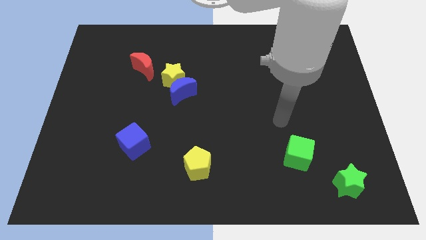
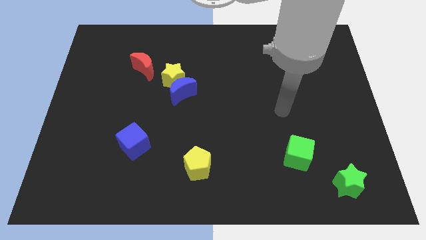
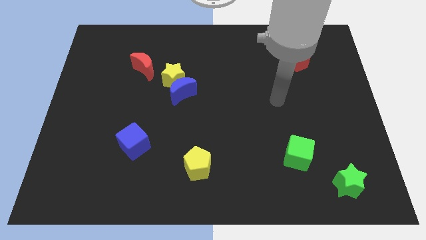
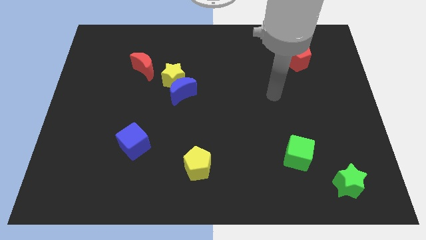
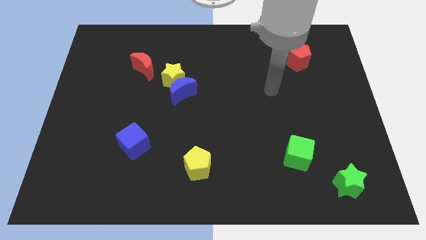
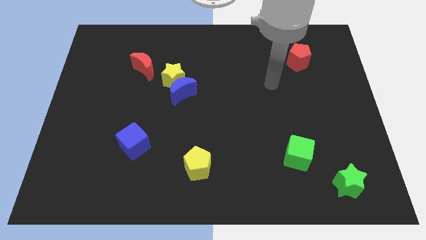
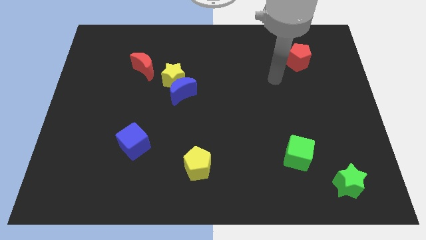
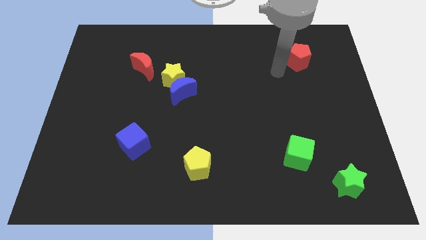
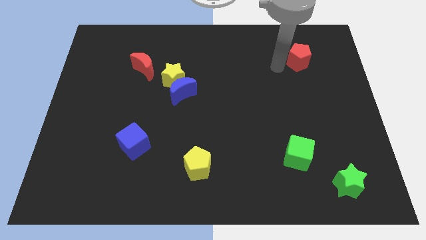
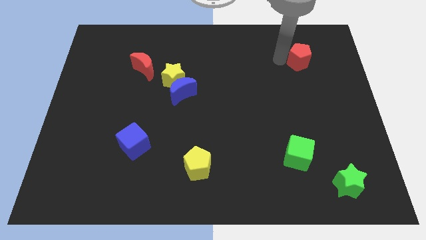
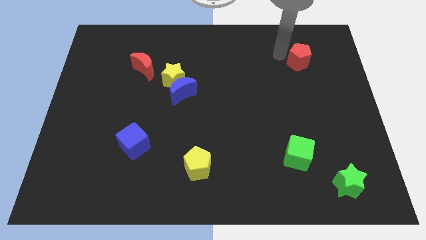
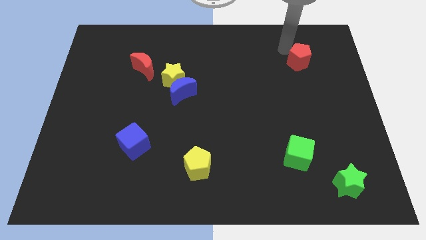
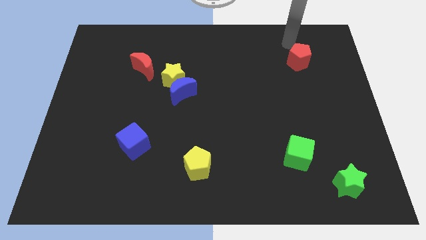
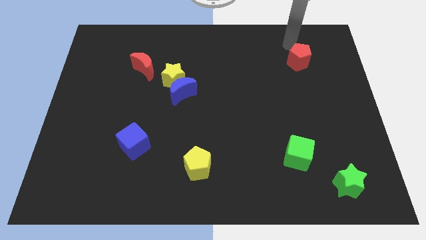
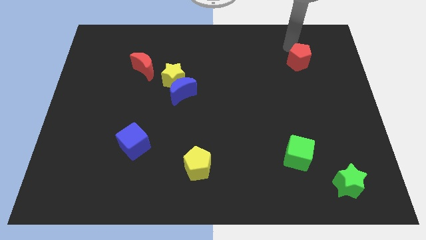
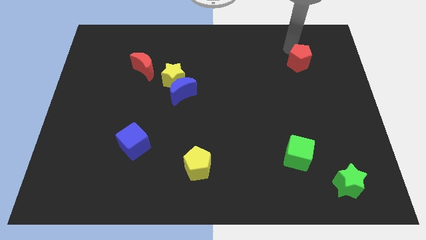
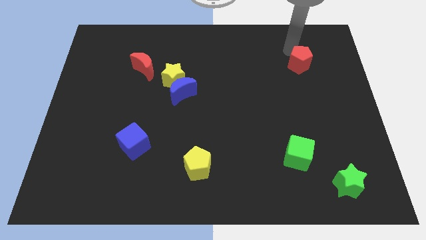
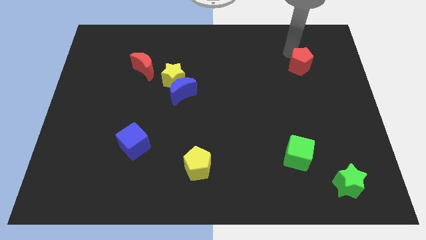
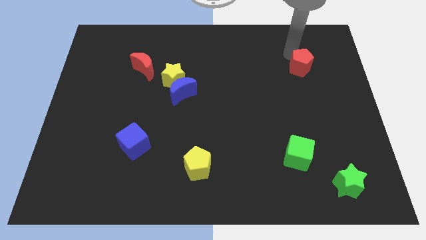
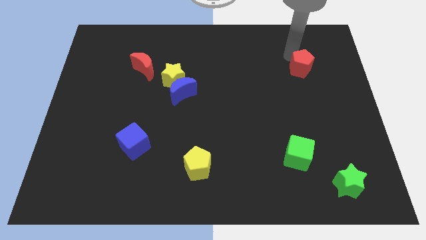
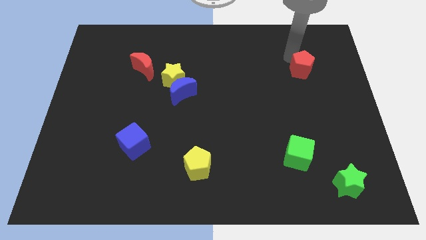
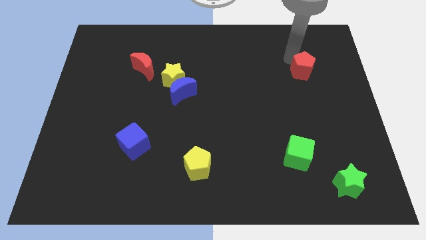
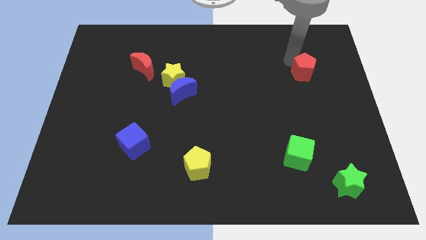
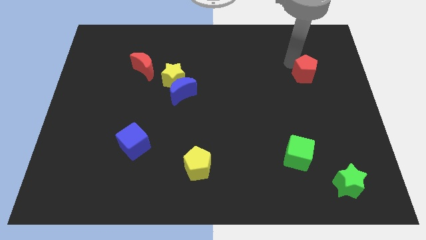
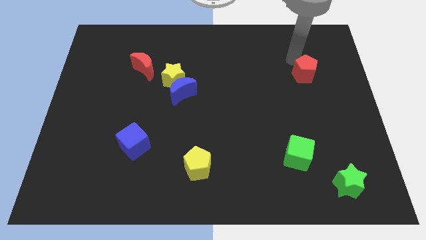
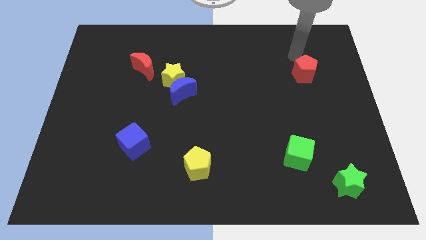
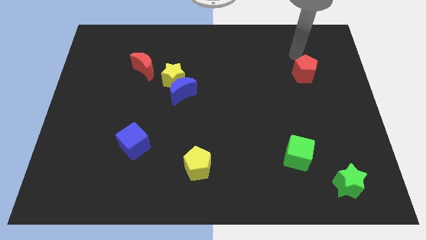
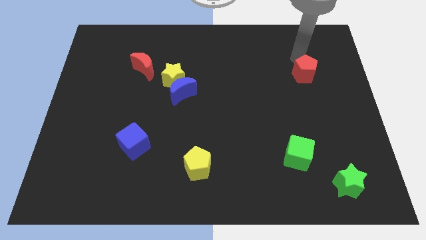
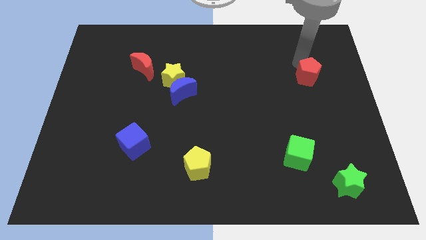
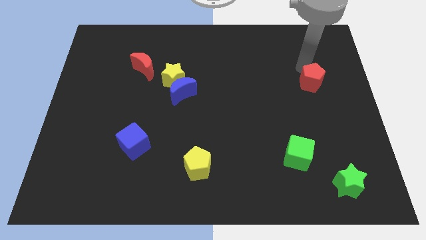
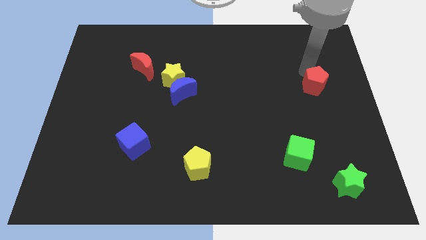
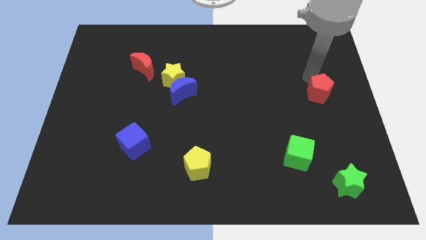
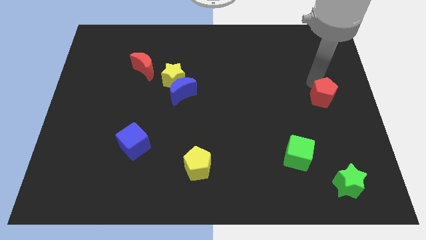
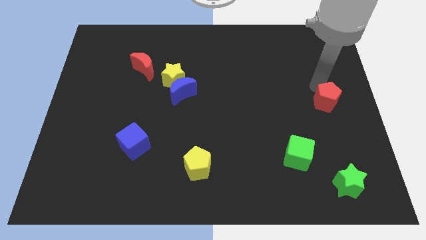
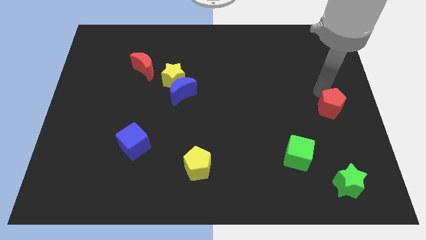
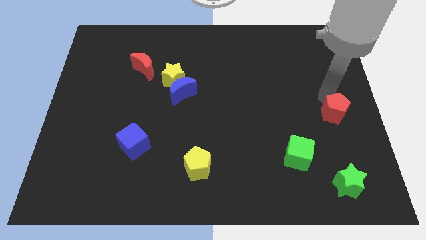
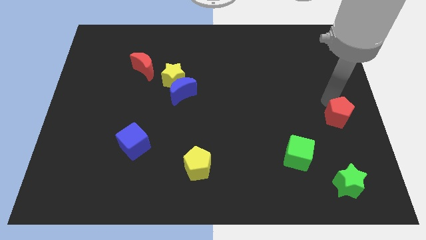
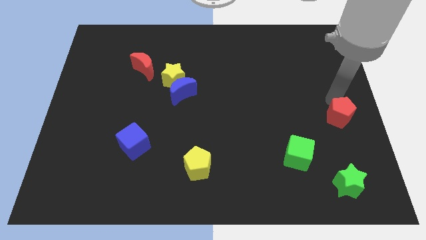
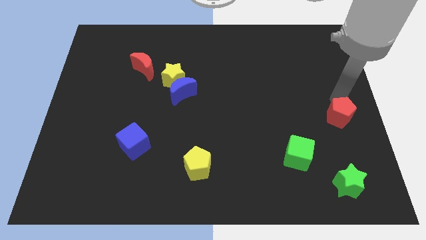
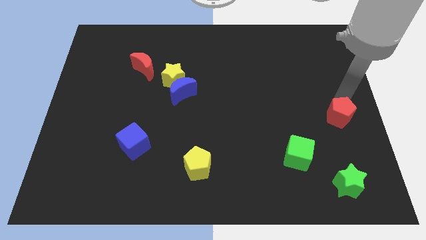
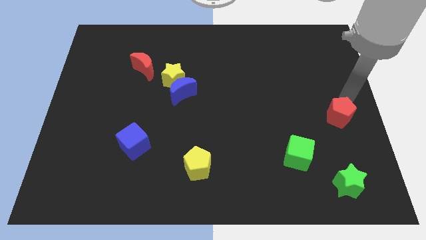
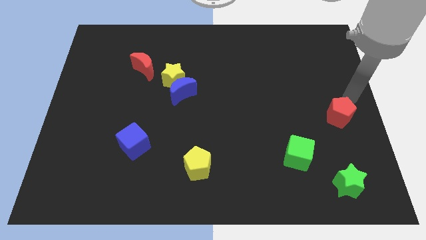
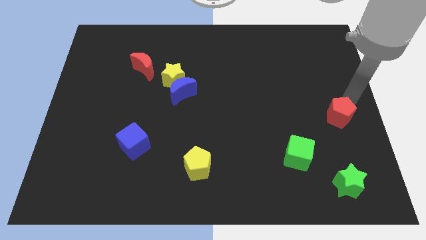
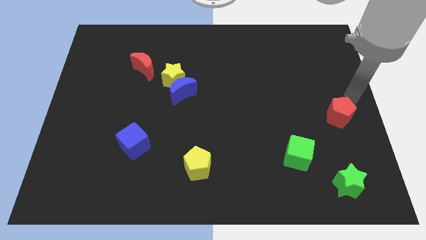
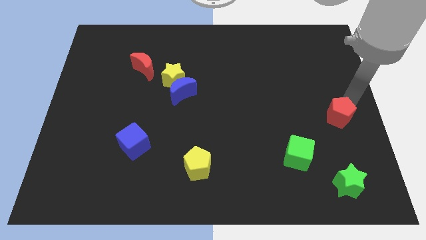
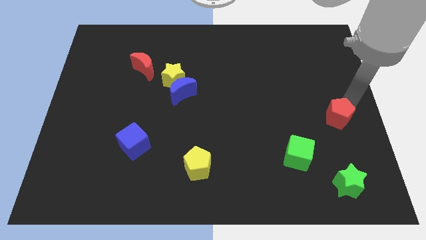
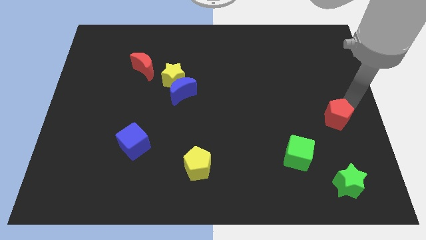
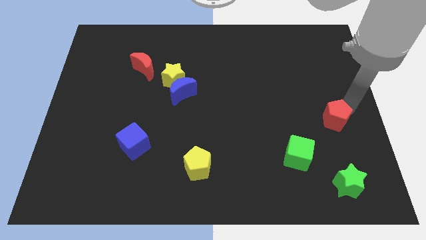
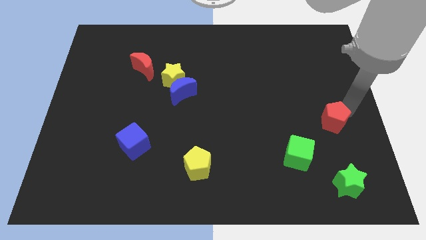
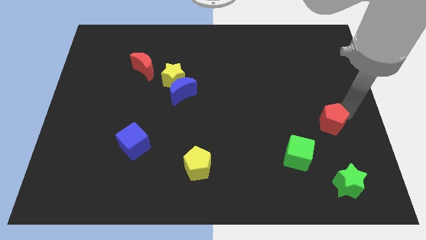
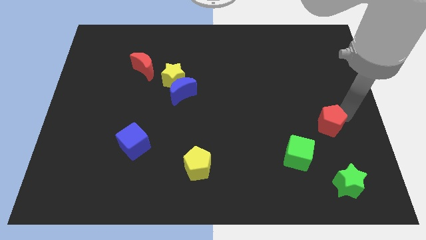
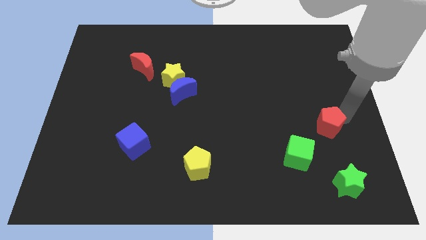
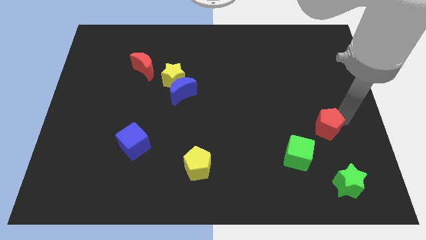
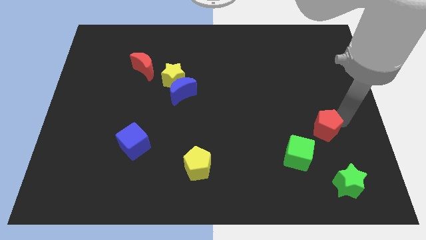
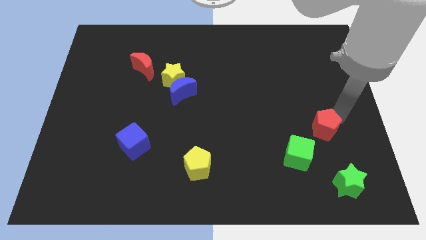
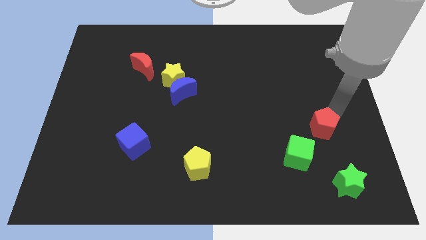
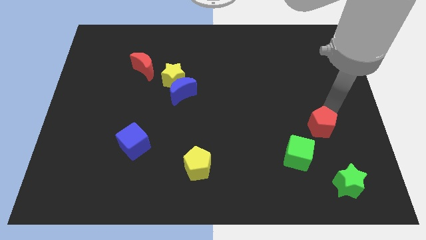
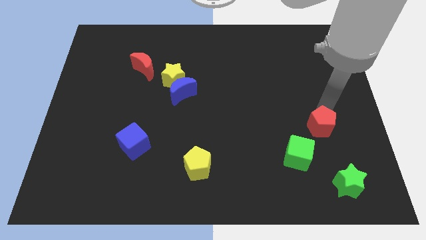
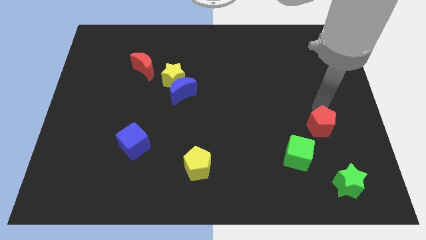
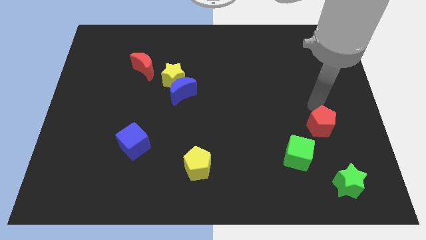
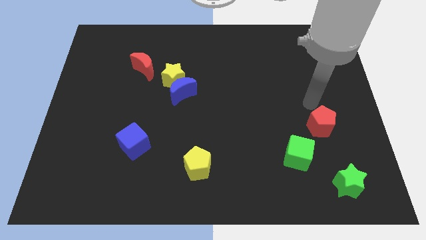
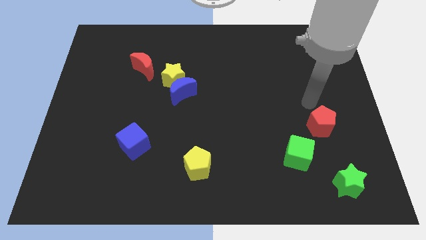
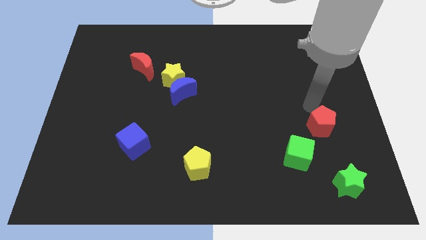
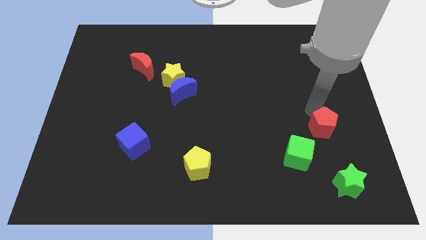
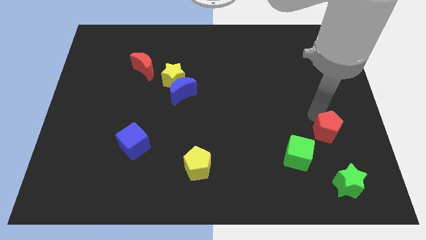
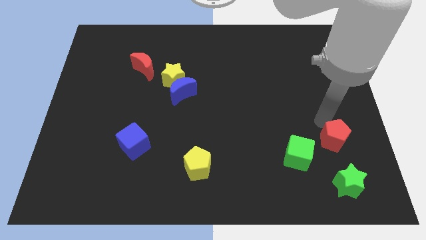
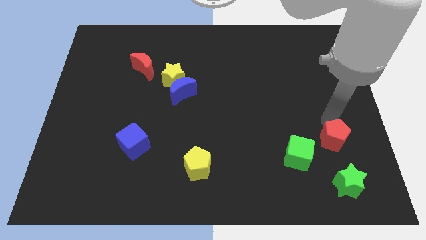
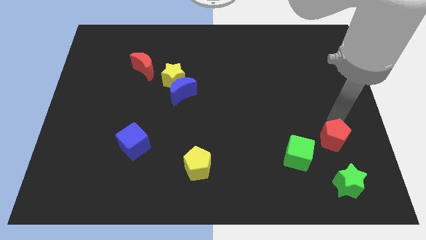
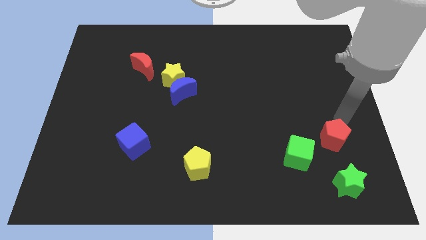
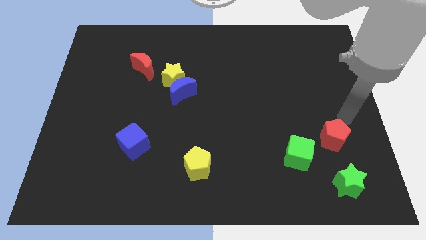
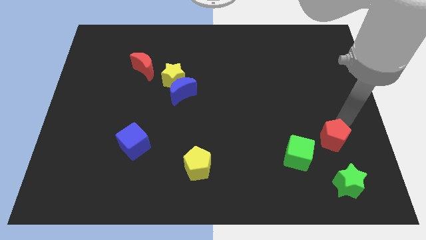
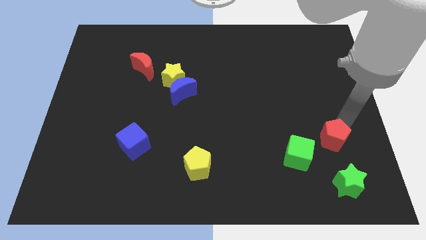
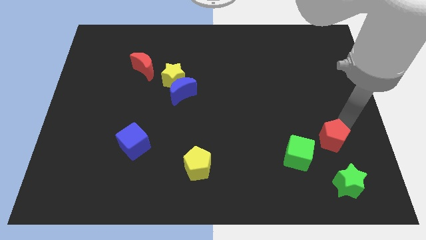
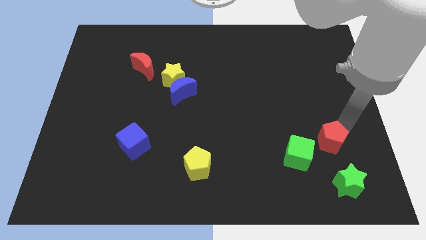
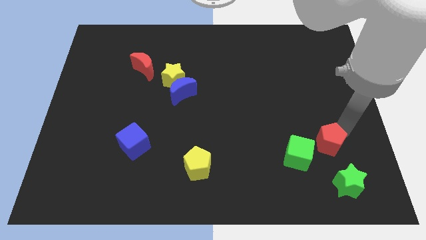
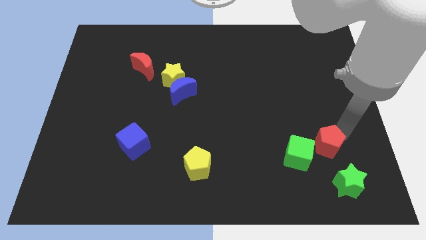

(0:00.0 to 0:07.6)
put the red pentagon diagonally up and to the left of the green star
